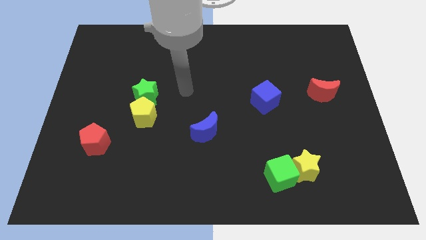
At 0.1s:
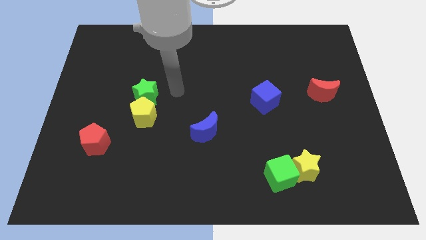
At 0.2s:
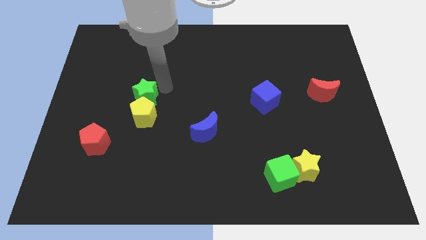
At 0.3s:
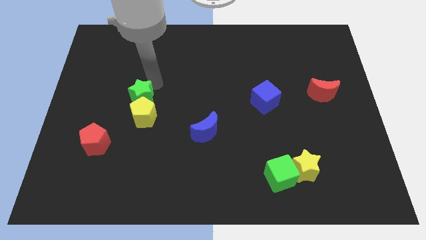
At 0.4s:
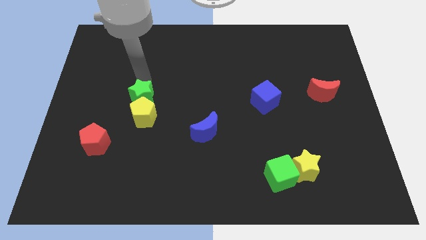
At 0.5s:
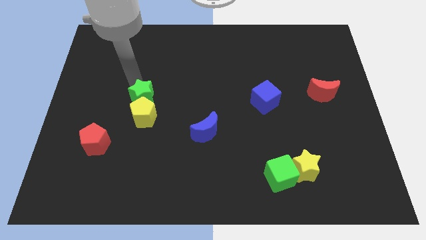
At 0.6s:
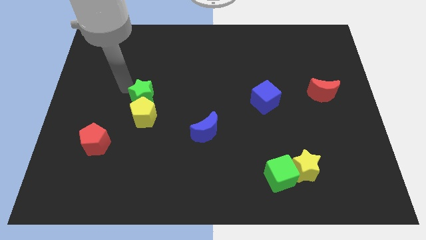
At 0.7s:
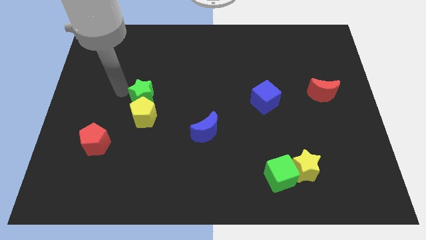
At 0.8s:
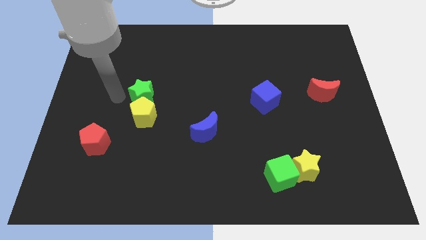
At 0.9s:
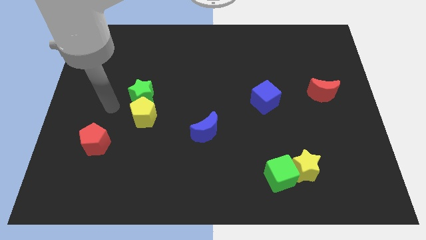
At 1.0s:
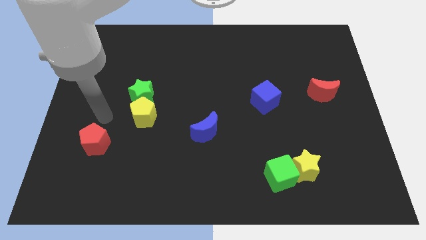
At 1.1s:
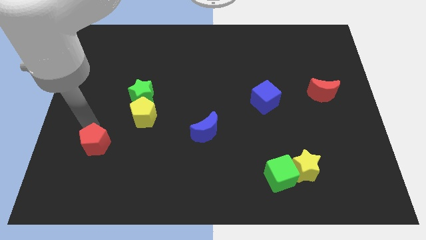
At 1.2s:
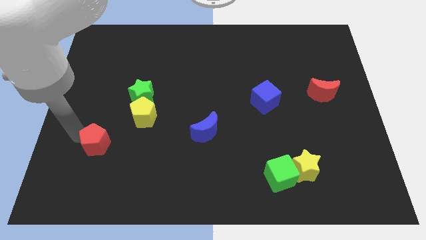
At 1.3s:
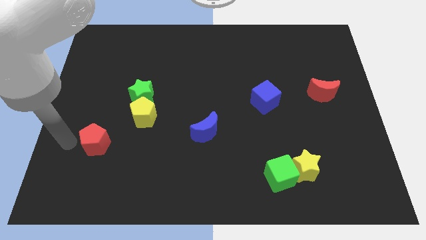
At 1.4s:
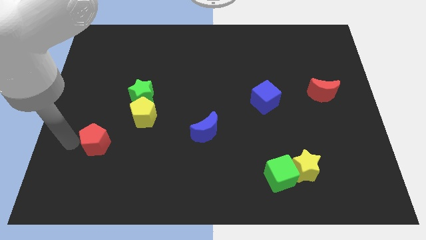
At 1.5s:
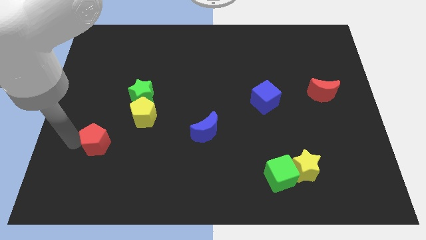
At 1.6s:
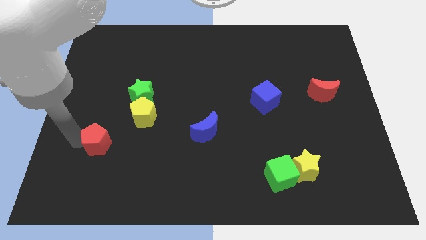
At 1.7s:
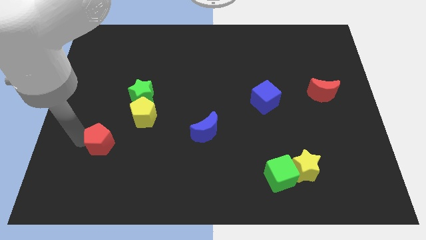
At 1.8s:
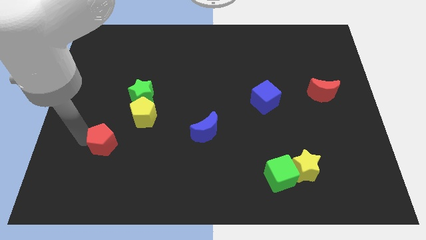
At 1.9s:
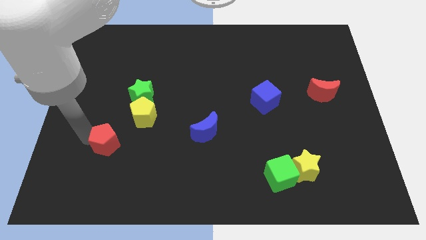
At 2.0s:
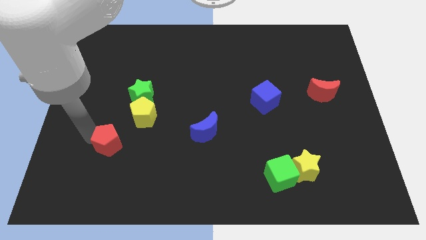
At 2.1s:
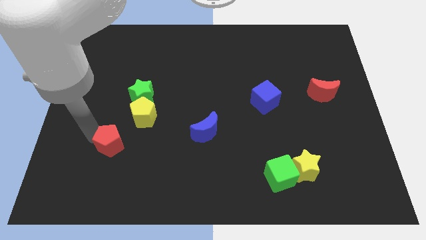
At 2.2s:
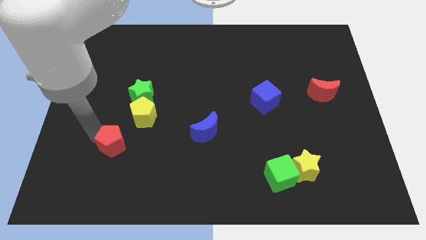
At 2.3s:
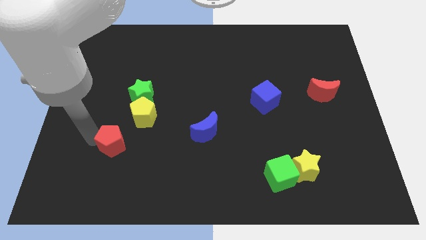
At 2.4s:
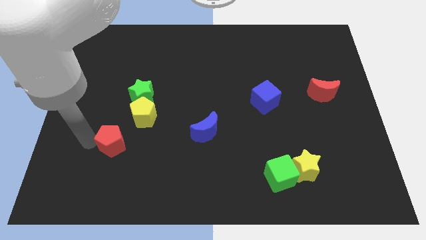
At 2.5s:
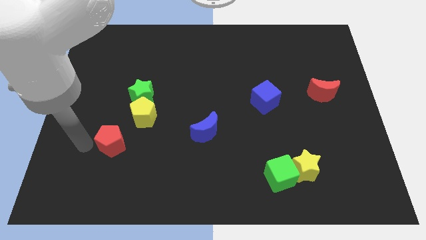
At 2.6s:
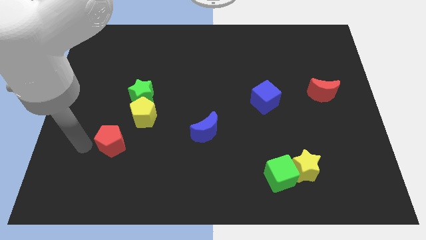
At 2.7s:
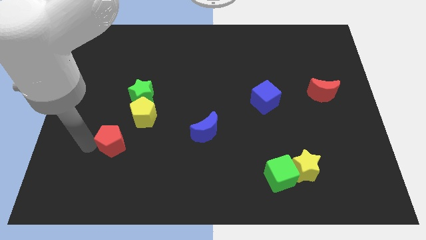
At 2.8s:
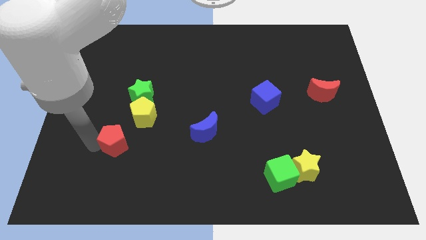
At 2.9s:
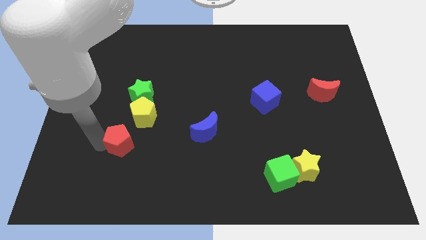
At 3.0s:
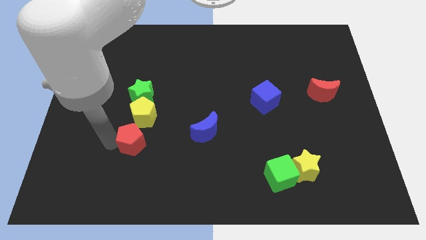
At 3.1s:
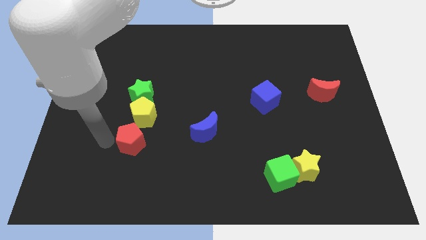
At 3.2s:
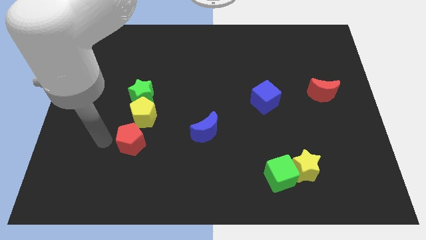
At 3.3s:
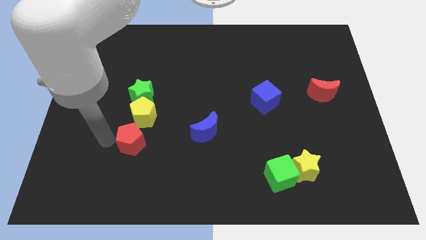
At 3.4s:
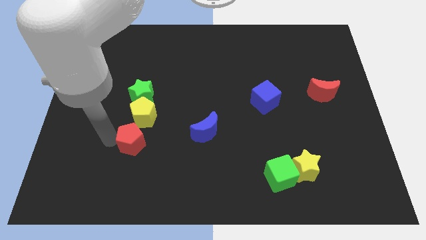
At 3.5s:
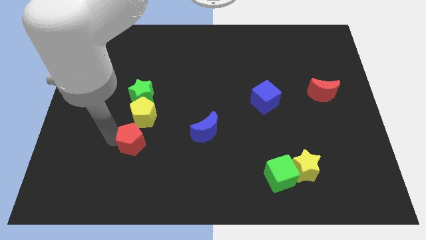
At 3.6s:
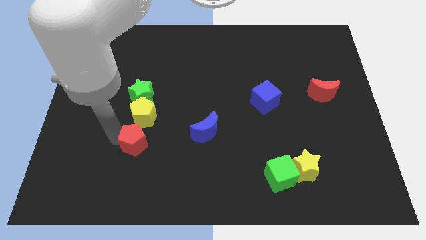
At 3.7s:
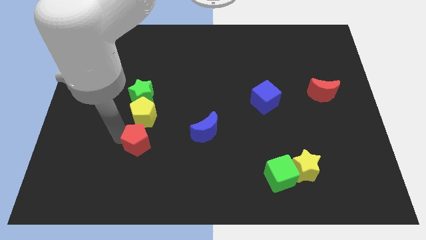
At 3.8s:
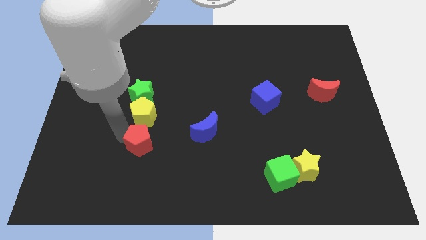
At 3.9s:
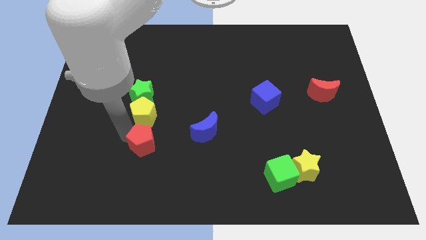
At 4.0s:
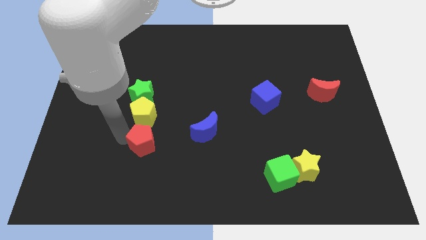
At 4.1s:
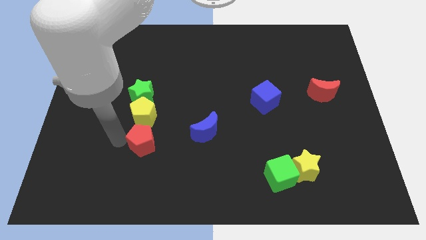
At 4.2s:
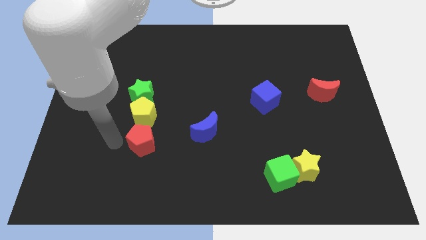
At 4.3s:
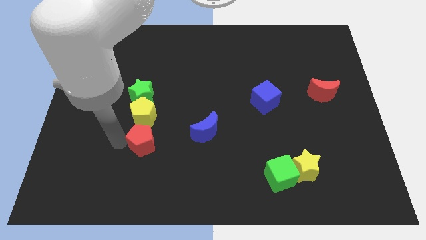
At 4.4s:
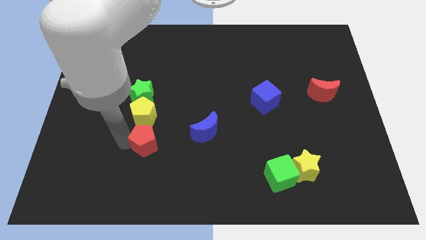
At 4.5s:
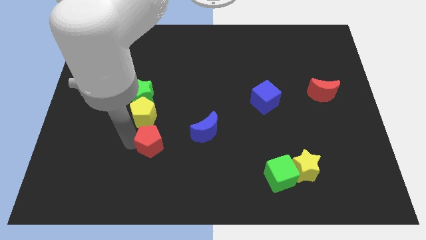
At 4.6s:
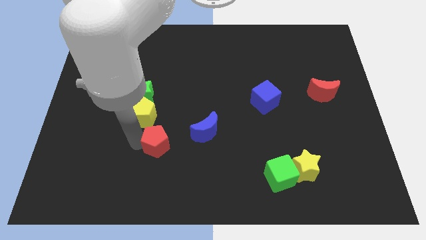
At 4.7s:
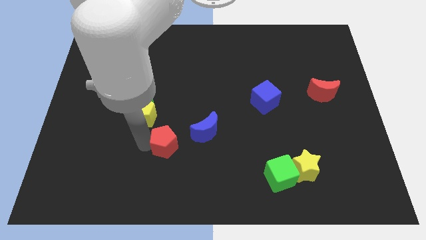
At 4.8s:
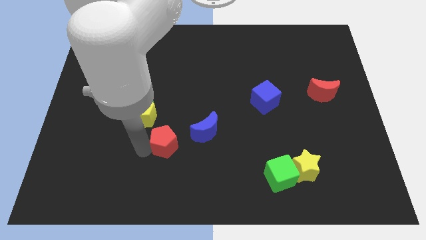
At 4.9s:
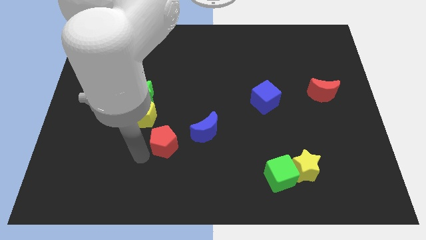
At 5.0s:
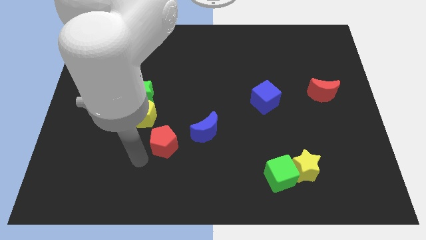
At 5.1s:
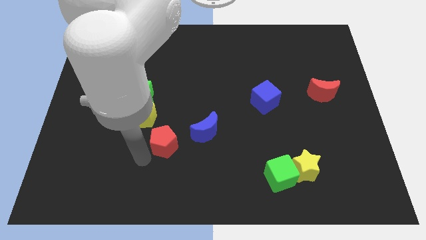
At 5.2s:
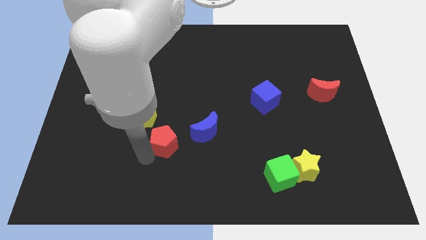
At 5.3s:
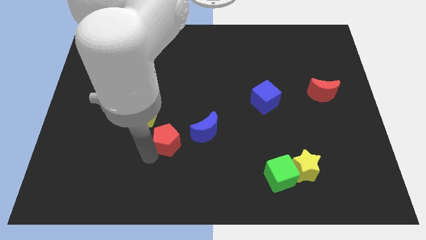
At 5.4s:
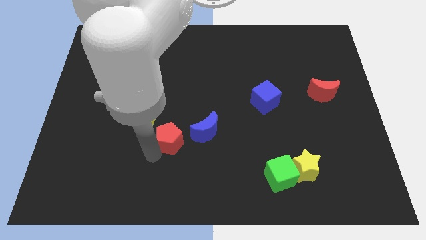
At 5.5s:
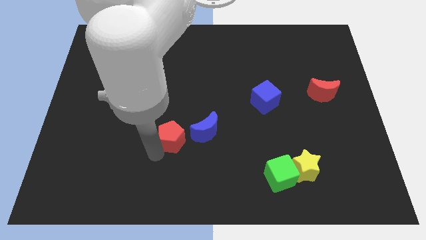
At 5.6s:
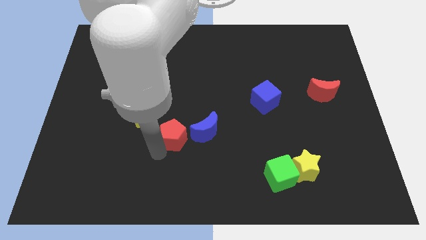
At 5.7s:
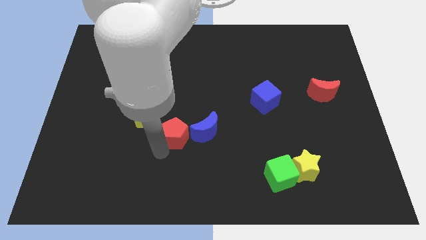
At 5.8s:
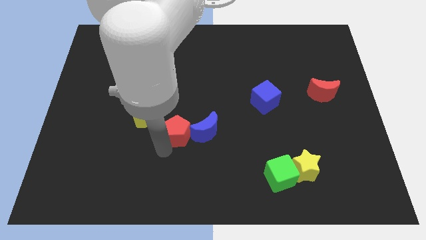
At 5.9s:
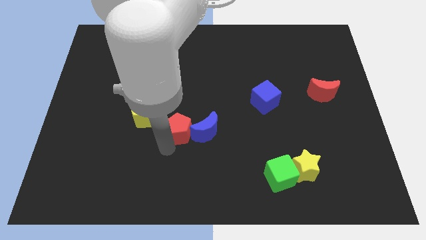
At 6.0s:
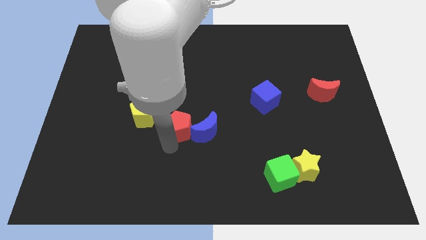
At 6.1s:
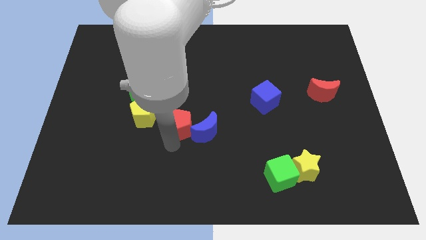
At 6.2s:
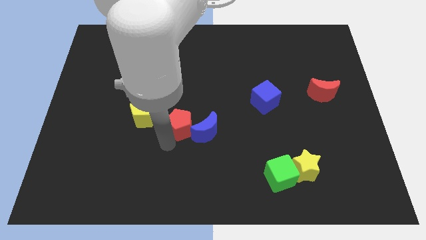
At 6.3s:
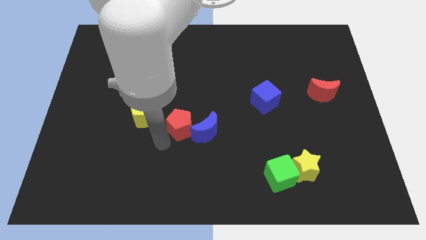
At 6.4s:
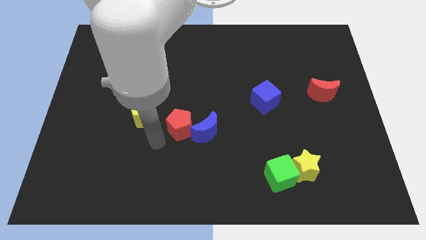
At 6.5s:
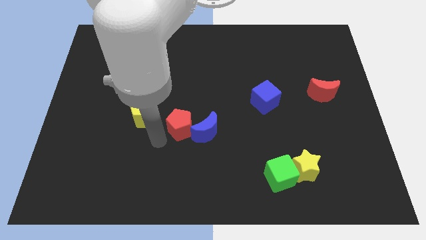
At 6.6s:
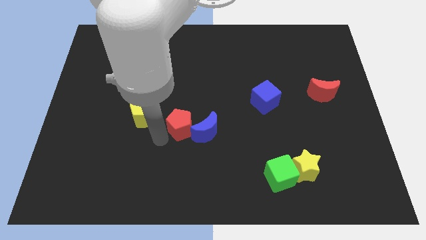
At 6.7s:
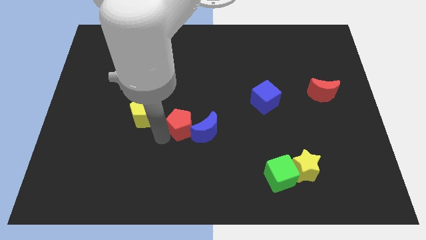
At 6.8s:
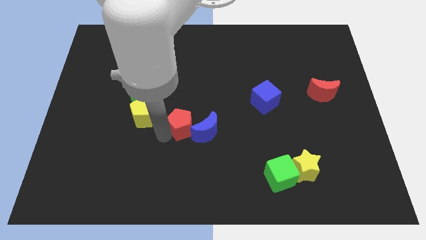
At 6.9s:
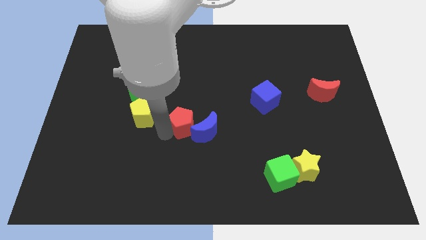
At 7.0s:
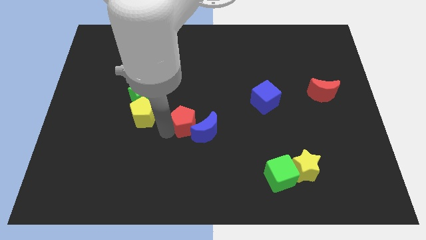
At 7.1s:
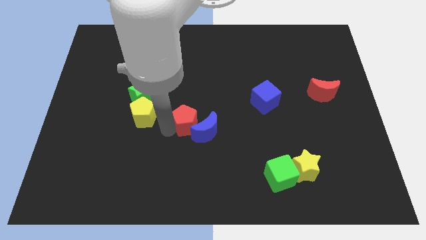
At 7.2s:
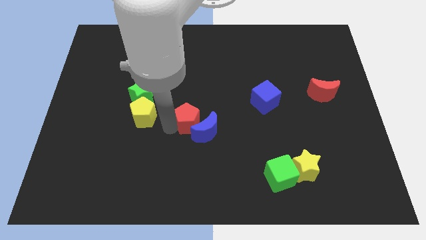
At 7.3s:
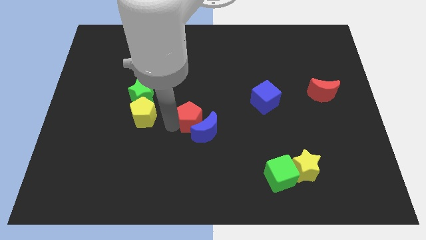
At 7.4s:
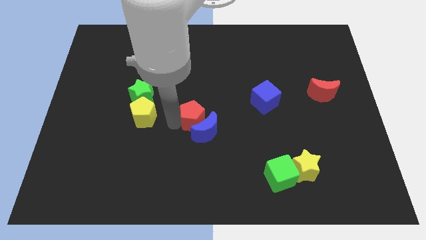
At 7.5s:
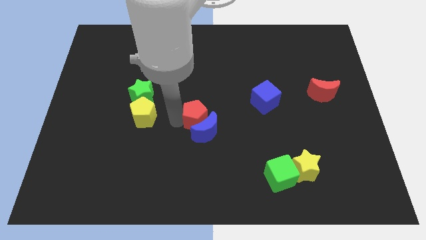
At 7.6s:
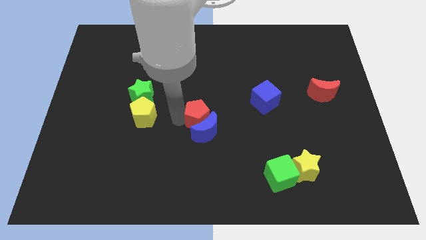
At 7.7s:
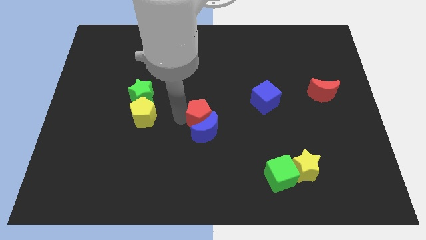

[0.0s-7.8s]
move the red pentagon diagonally up and to the right of the blue moon

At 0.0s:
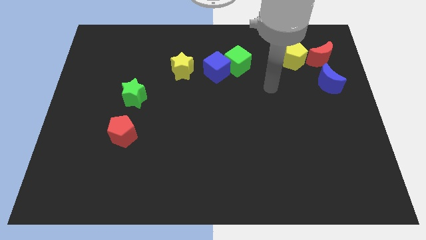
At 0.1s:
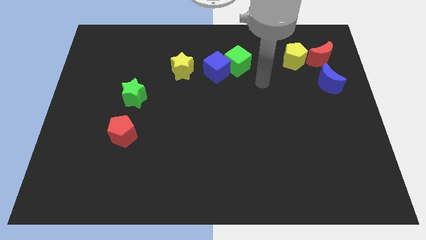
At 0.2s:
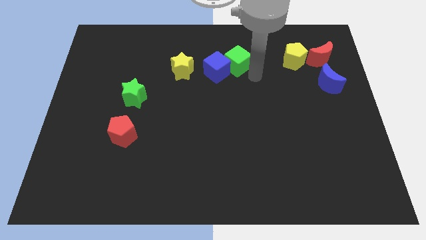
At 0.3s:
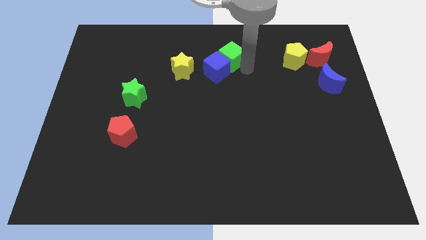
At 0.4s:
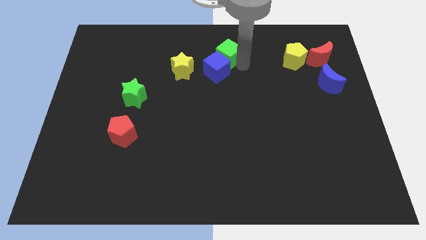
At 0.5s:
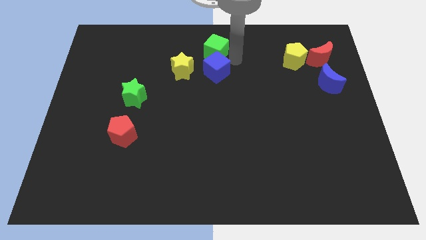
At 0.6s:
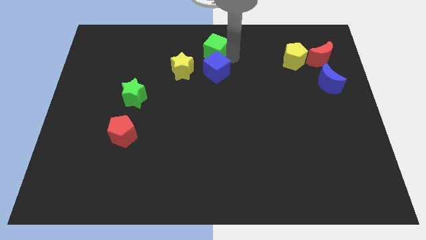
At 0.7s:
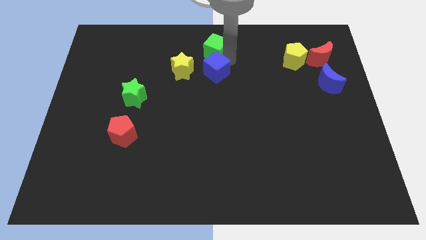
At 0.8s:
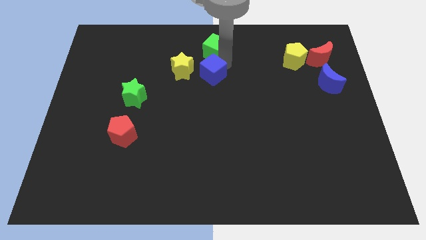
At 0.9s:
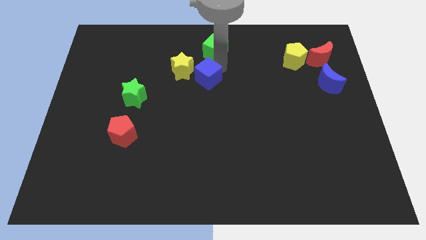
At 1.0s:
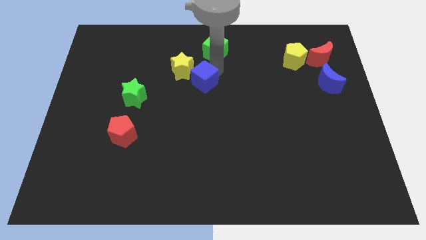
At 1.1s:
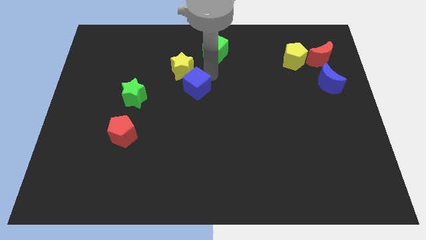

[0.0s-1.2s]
put the blue cube below the yellow star
